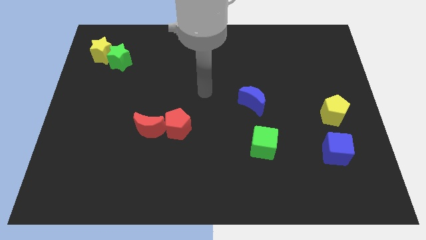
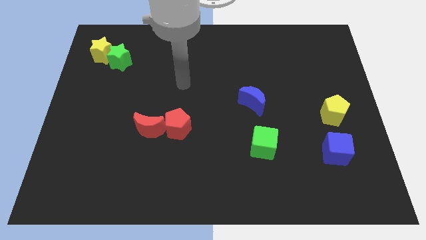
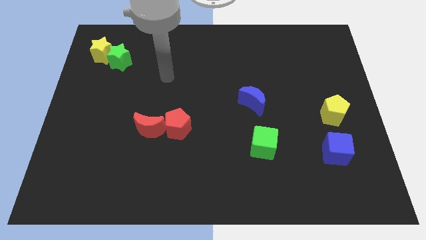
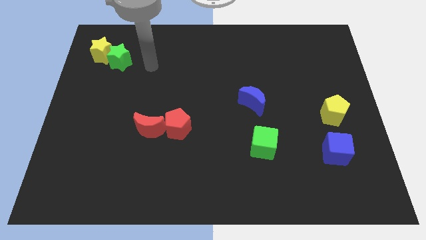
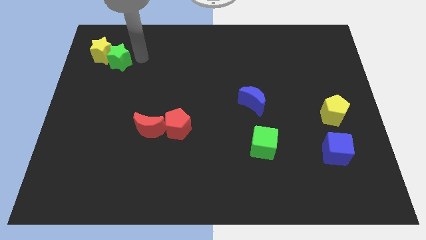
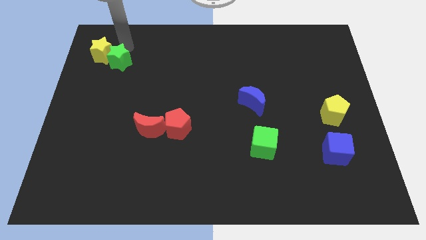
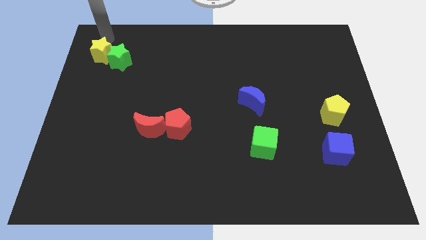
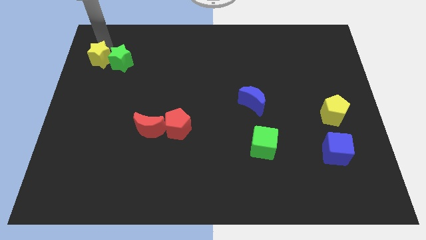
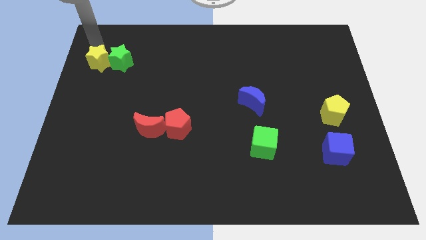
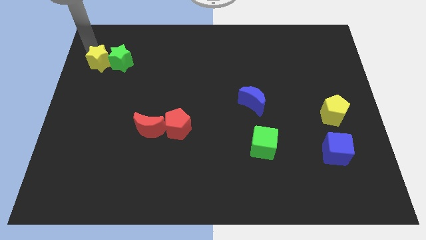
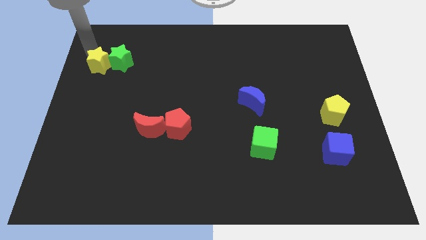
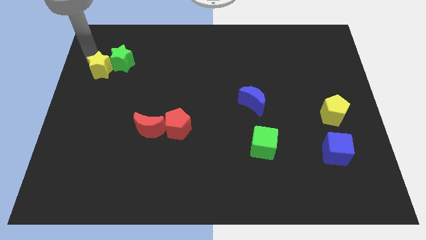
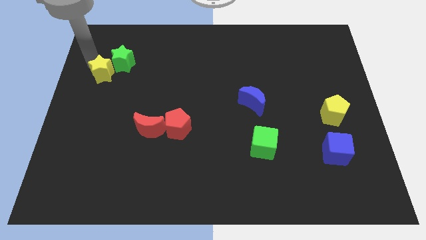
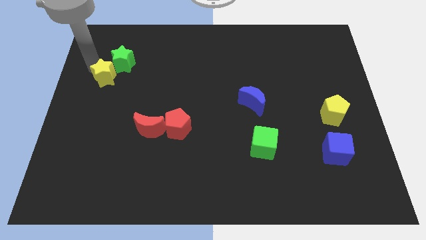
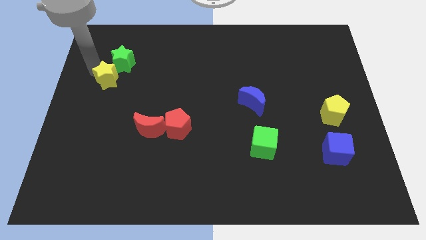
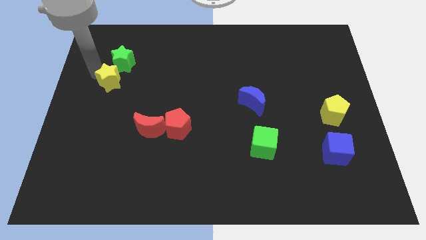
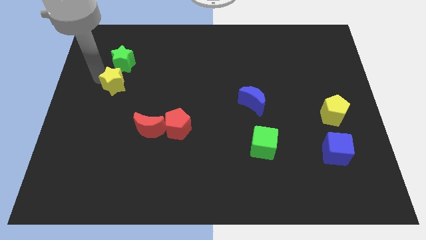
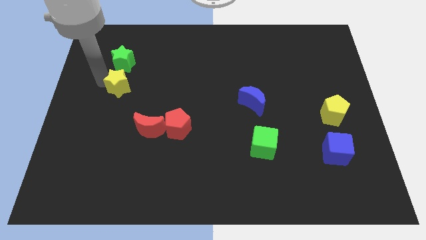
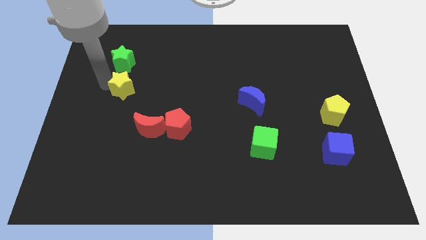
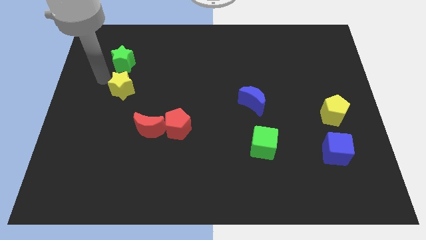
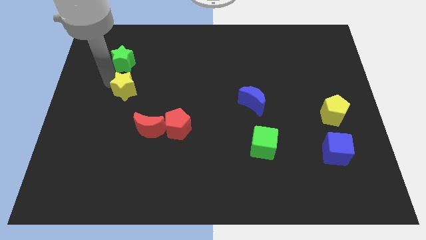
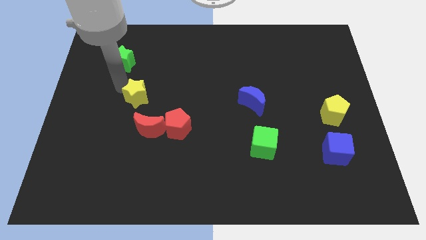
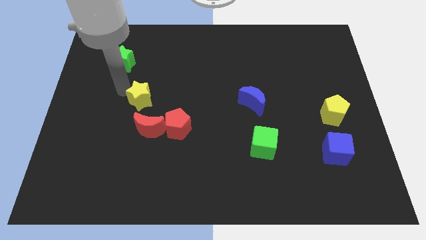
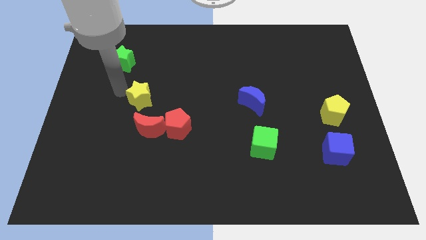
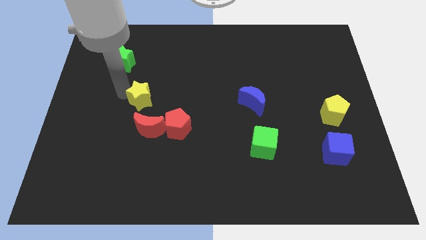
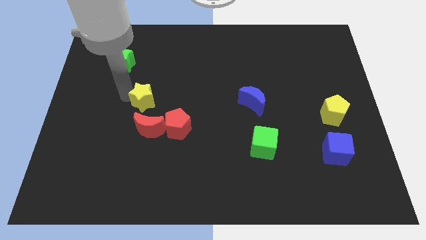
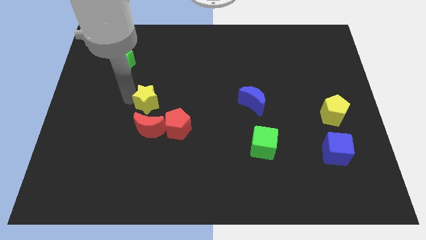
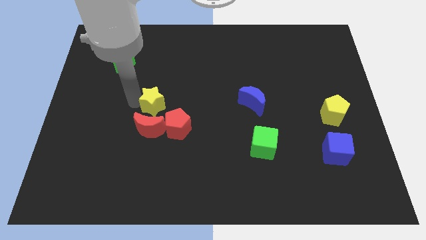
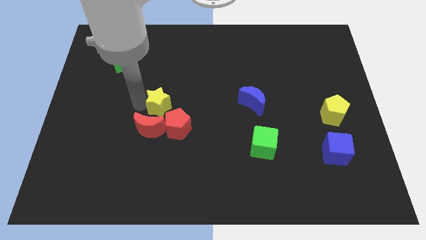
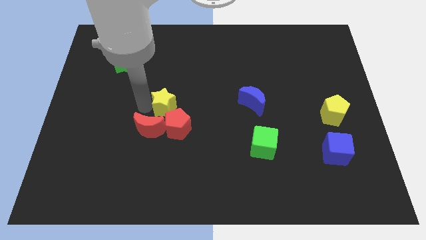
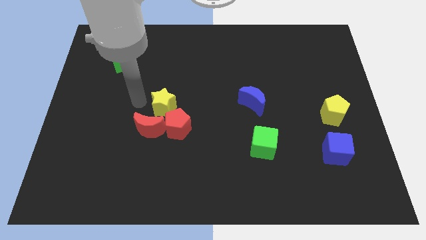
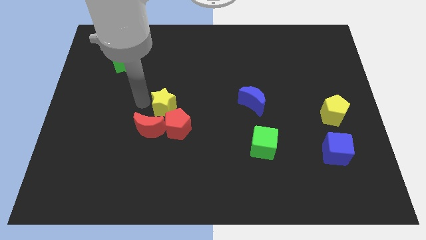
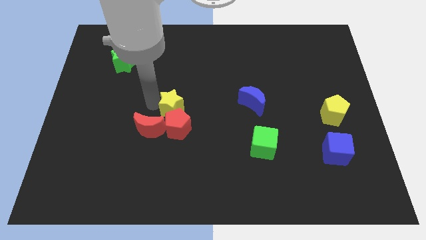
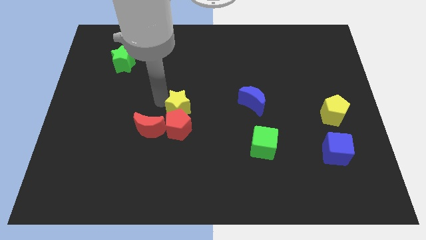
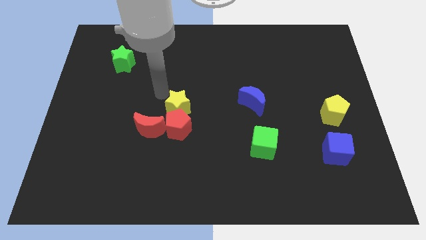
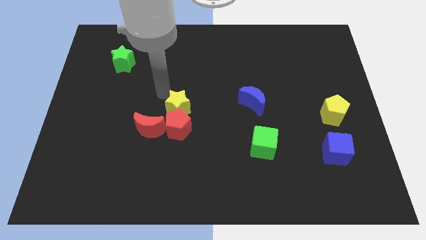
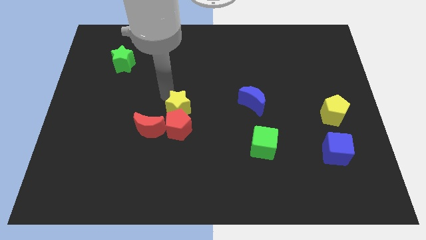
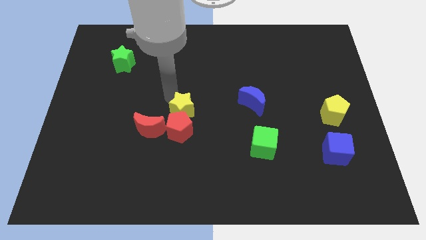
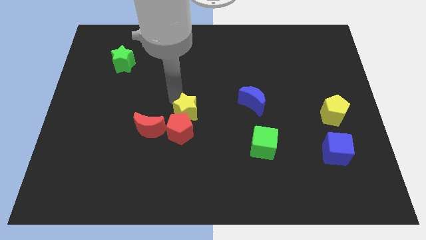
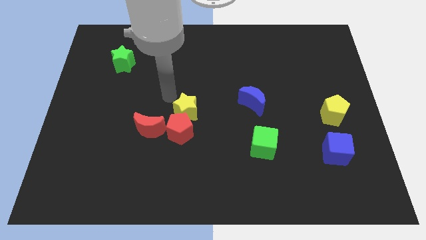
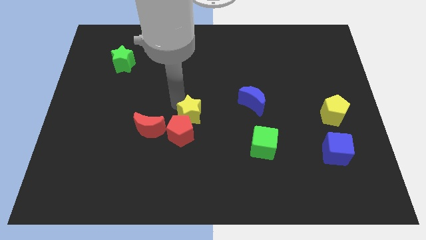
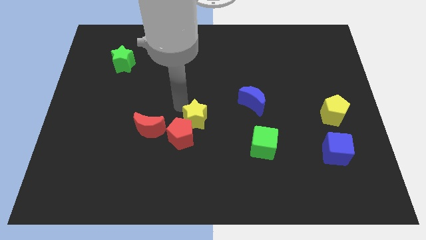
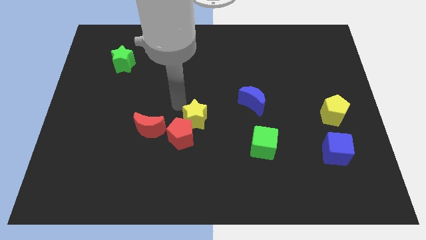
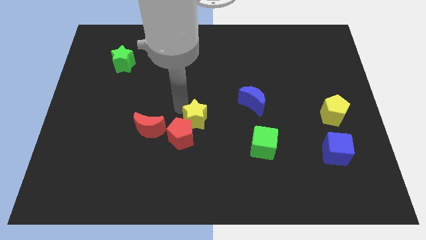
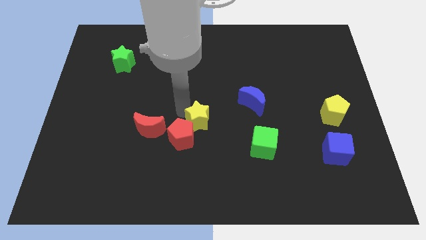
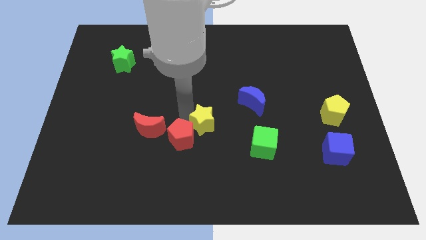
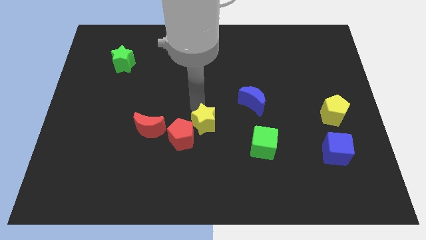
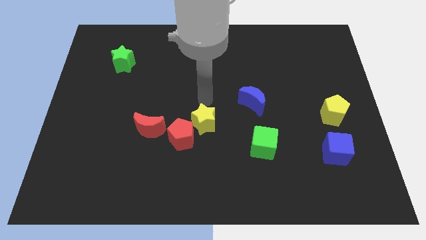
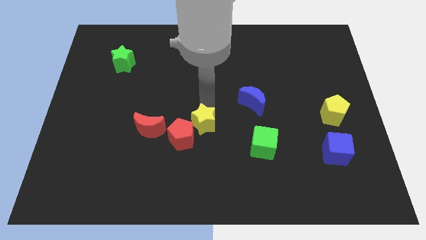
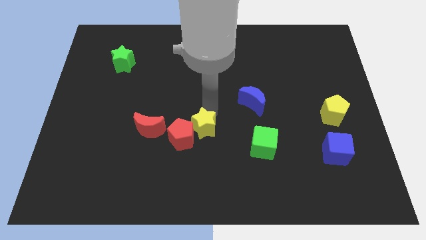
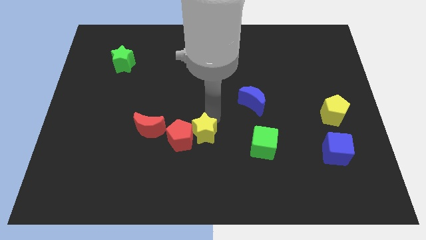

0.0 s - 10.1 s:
slide the yellow star diagonally down and to the right of the red pentagon

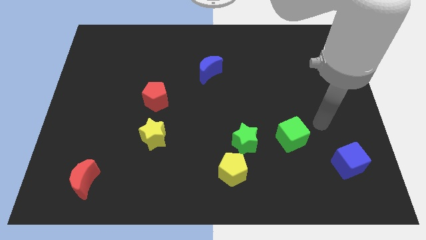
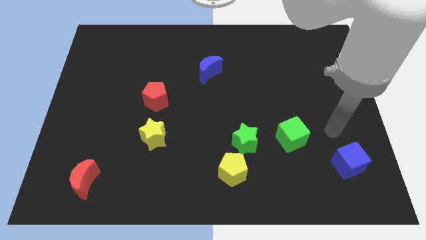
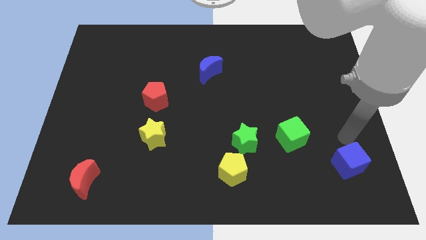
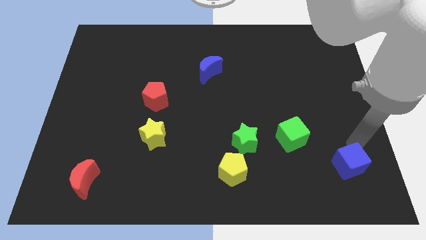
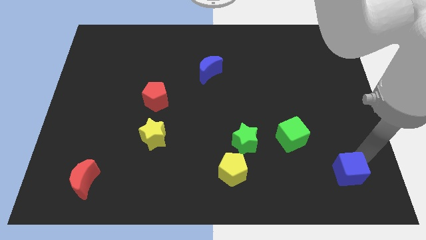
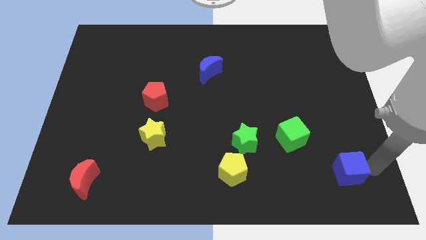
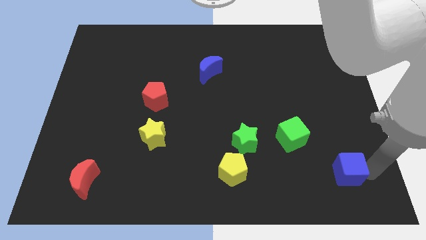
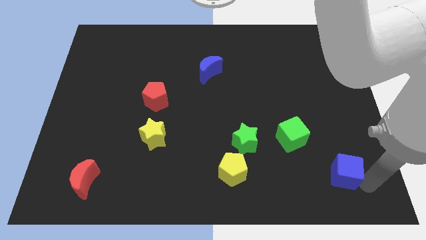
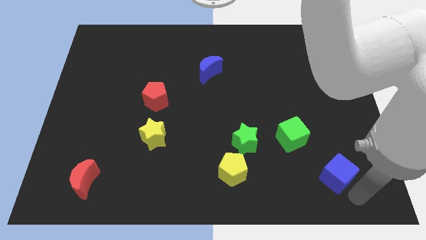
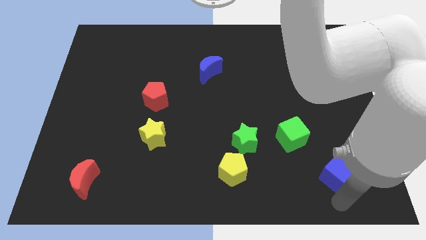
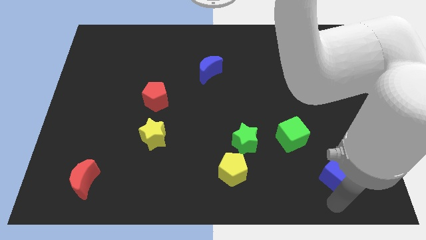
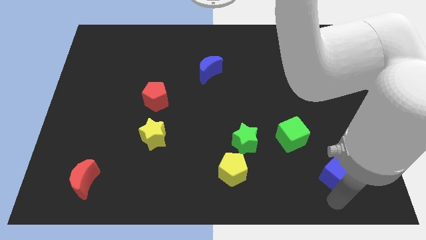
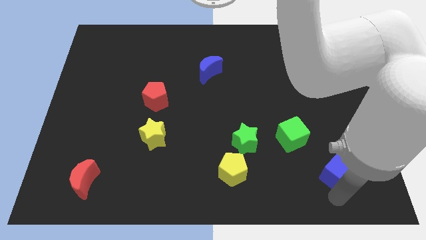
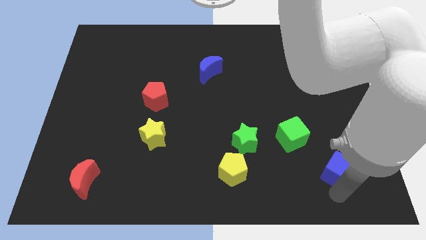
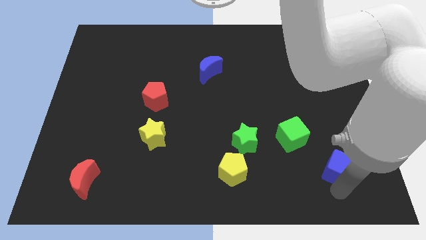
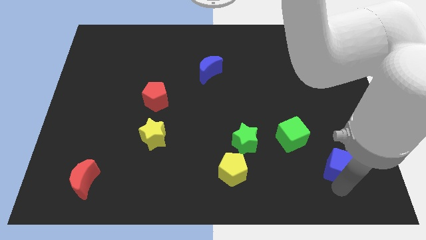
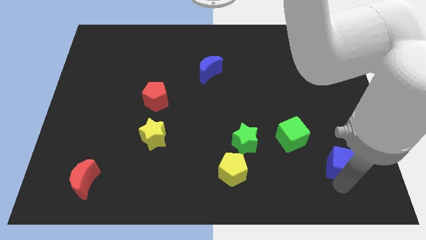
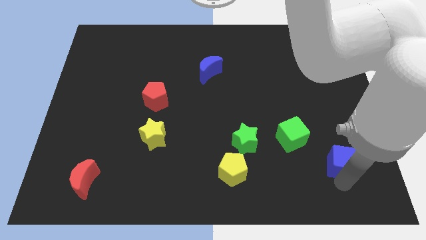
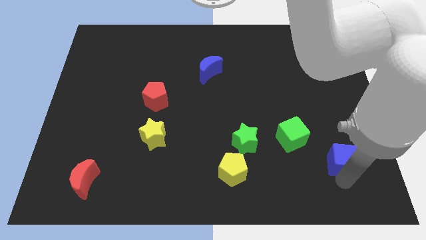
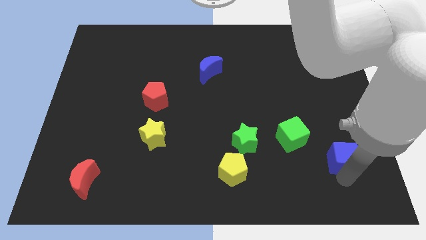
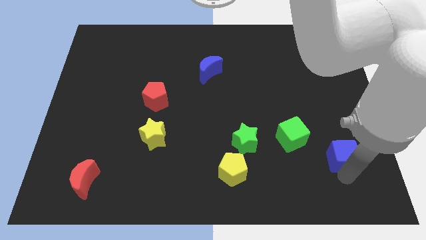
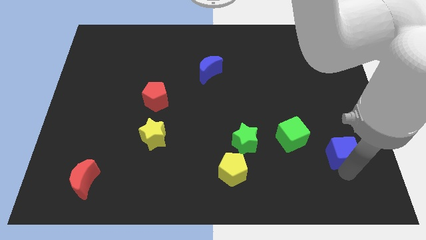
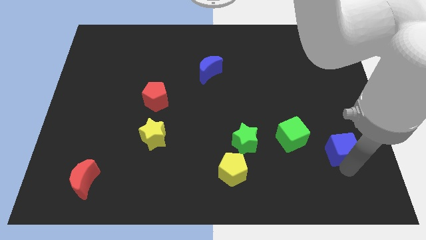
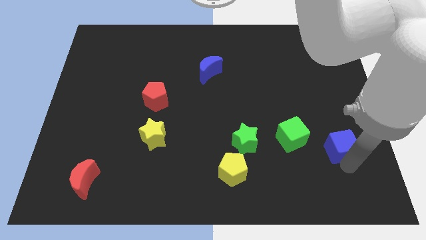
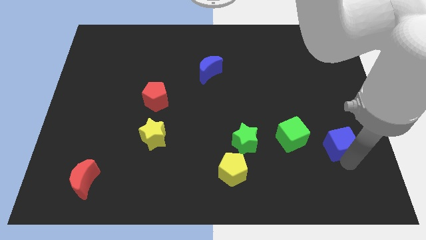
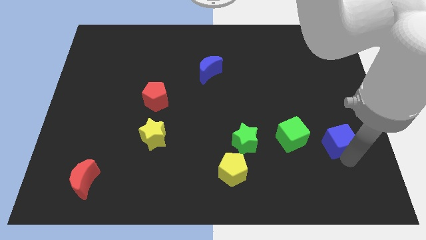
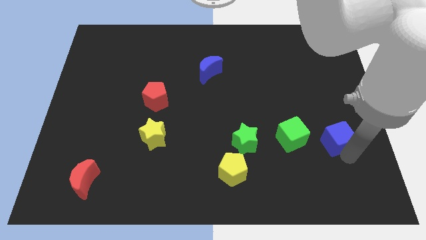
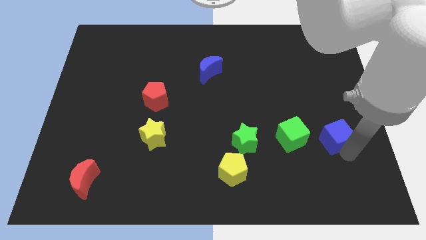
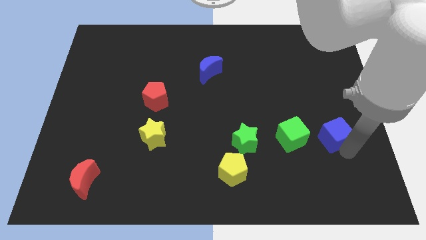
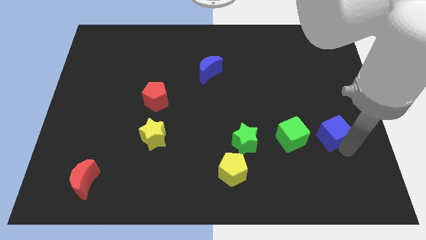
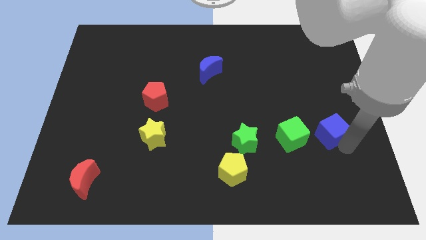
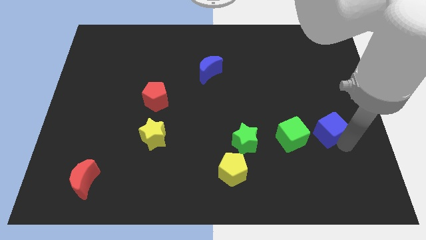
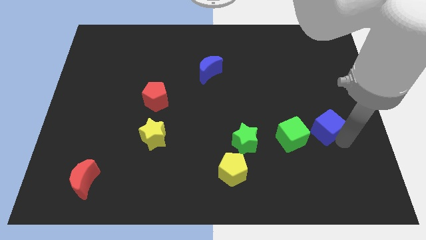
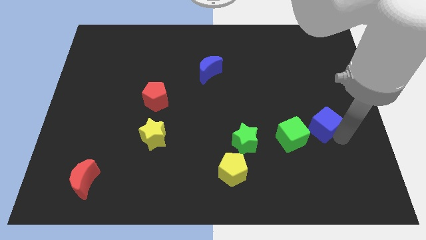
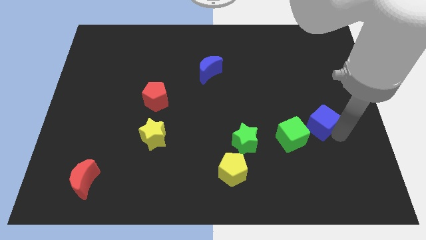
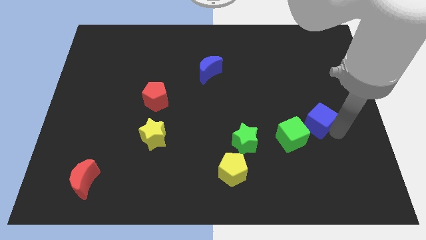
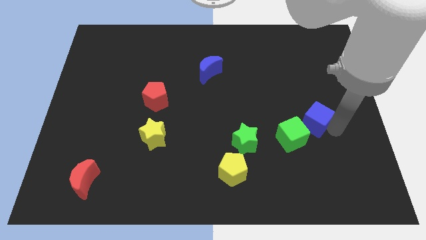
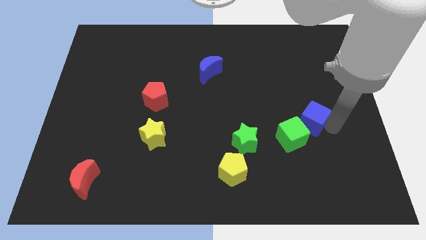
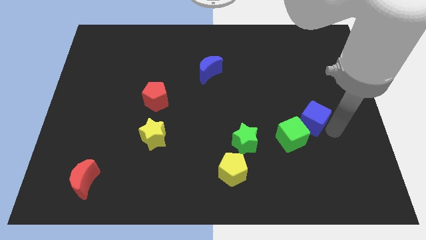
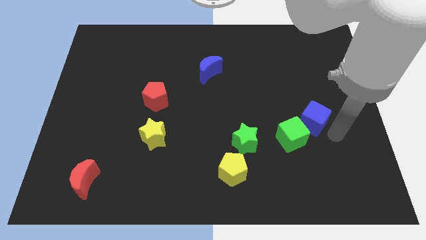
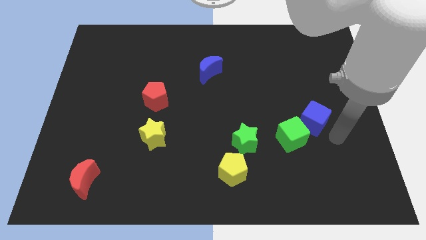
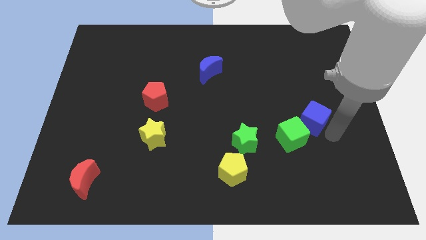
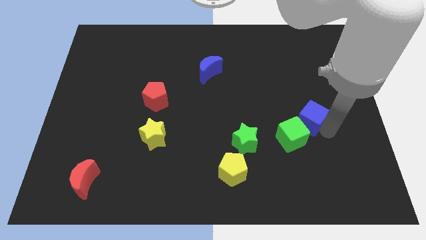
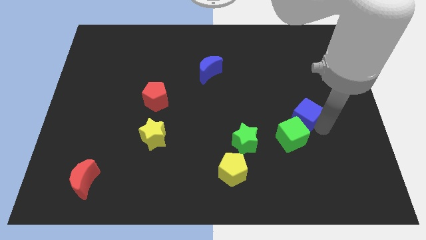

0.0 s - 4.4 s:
push the blue cube above the green cube
